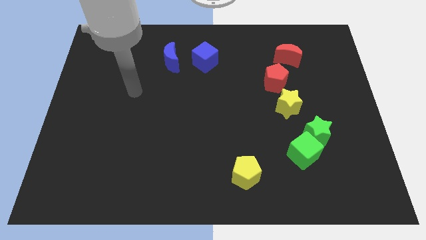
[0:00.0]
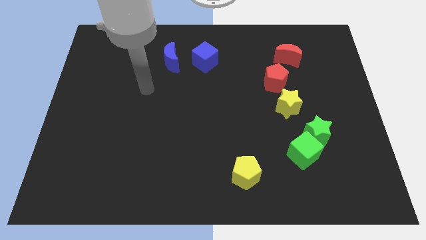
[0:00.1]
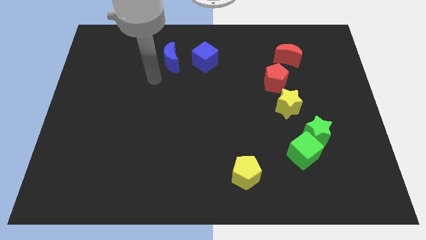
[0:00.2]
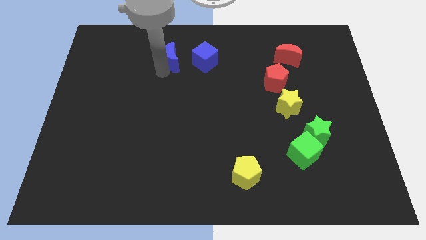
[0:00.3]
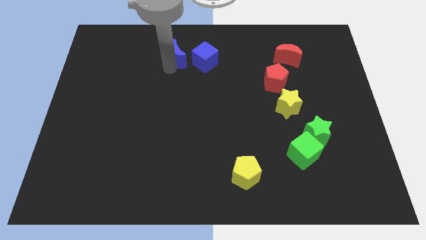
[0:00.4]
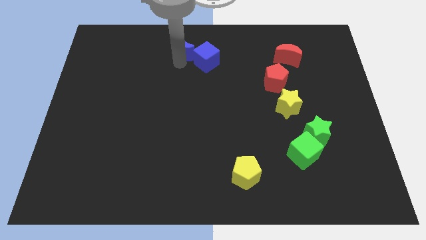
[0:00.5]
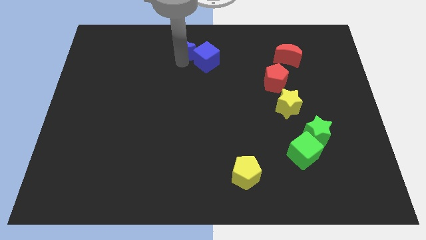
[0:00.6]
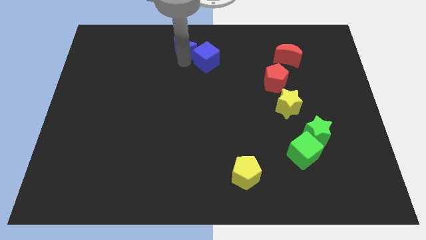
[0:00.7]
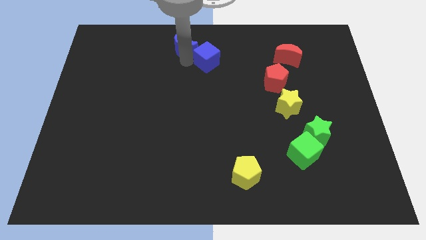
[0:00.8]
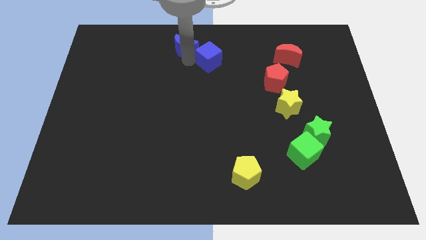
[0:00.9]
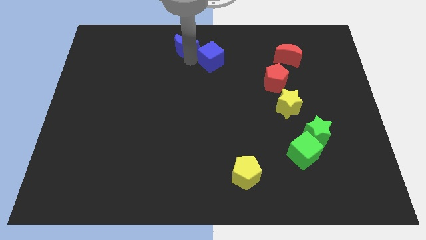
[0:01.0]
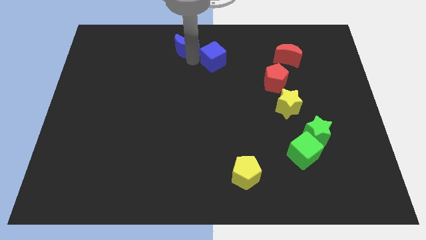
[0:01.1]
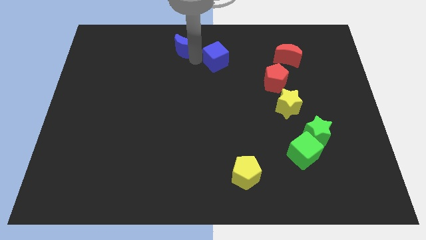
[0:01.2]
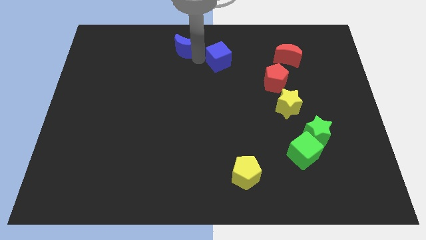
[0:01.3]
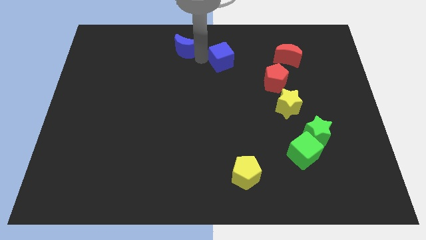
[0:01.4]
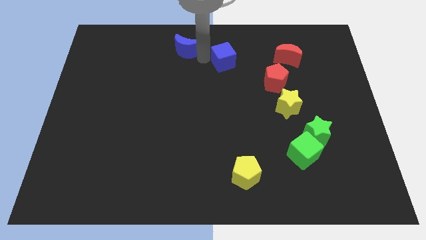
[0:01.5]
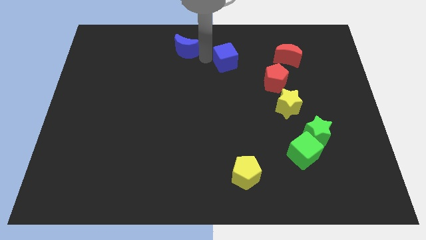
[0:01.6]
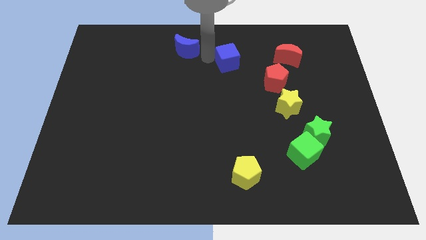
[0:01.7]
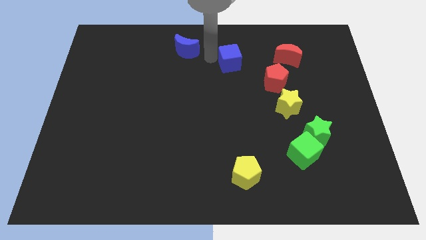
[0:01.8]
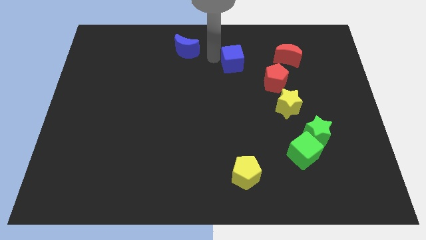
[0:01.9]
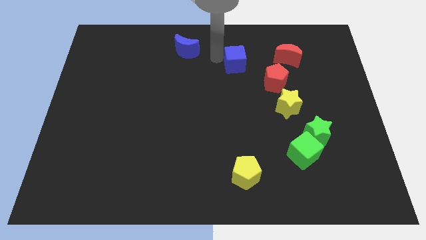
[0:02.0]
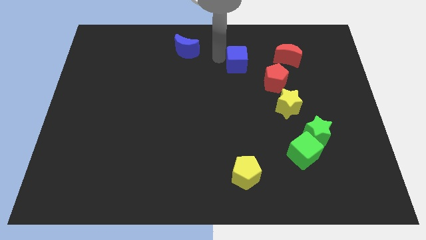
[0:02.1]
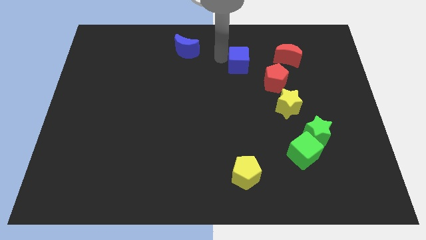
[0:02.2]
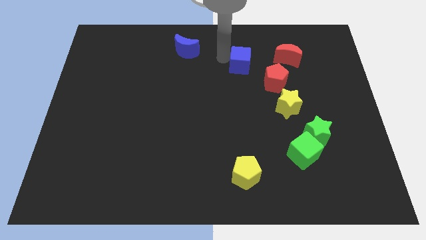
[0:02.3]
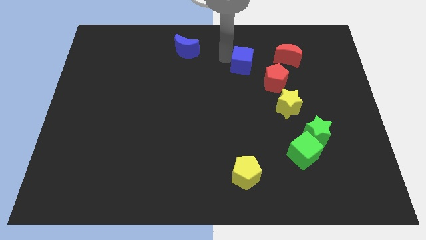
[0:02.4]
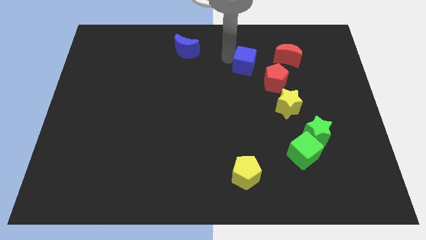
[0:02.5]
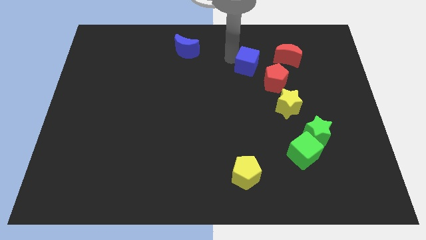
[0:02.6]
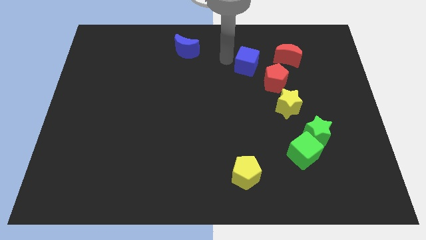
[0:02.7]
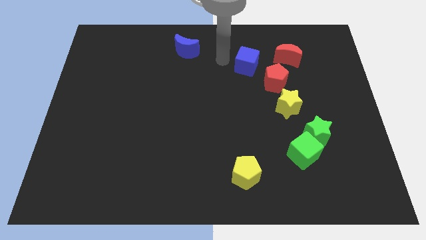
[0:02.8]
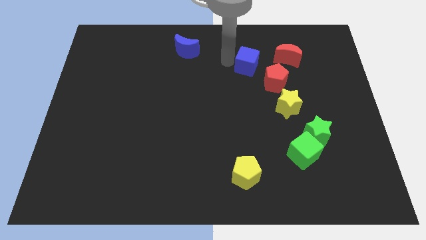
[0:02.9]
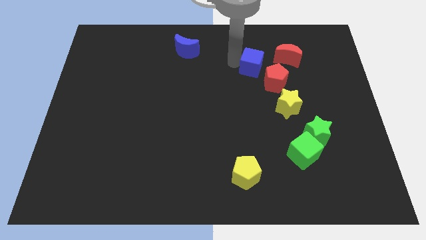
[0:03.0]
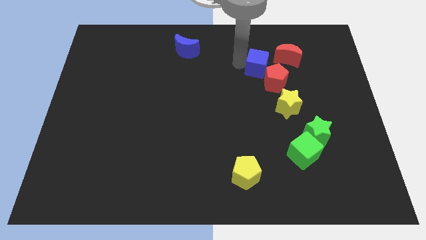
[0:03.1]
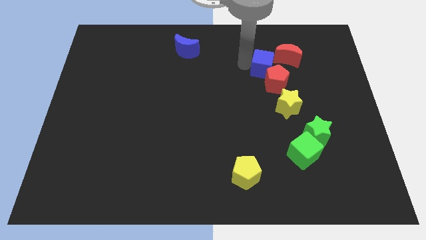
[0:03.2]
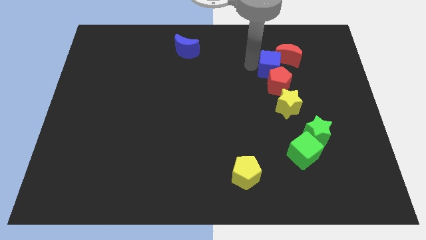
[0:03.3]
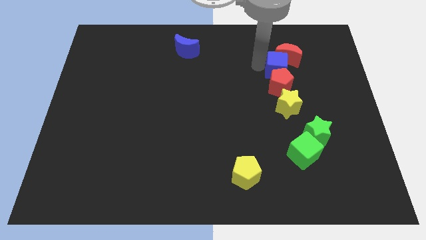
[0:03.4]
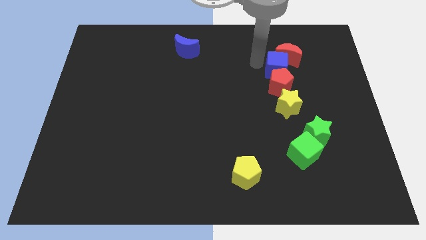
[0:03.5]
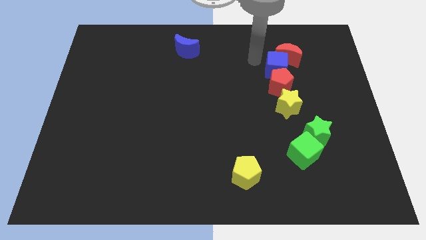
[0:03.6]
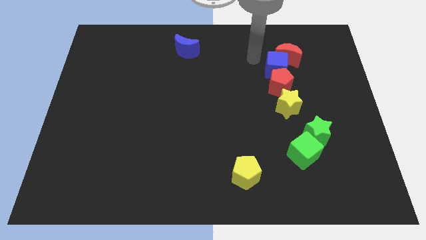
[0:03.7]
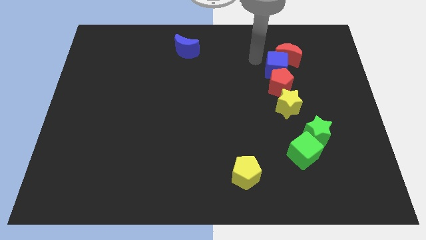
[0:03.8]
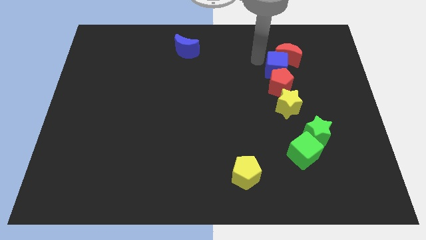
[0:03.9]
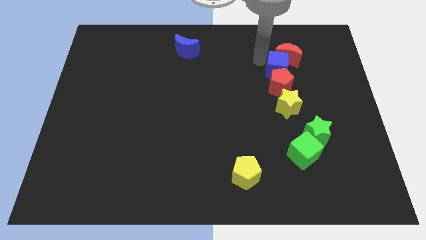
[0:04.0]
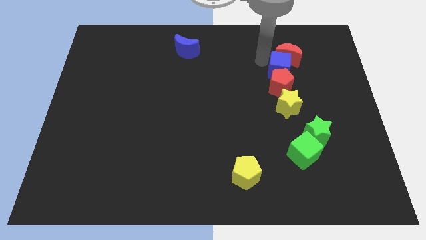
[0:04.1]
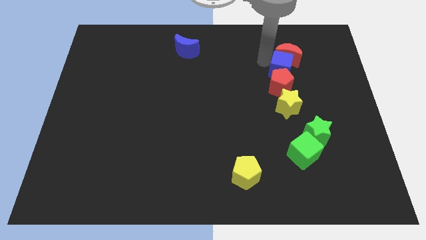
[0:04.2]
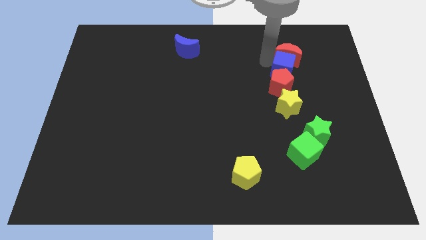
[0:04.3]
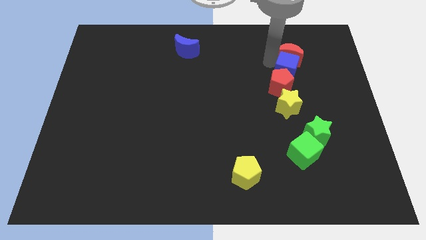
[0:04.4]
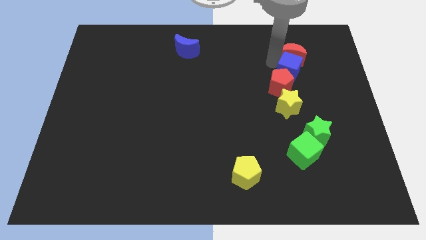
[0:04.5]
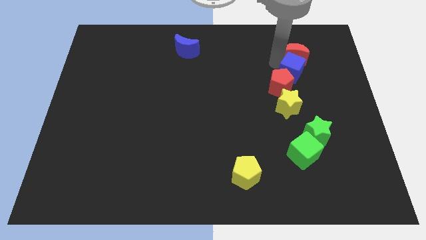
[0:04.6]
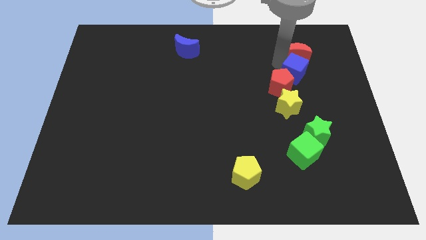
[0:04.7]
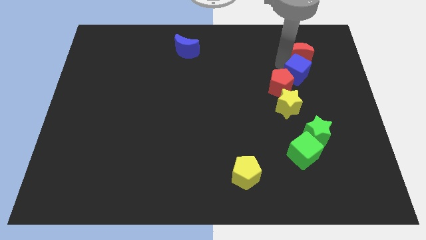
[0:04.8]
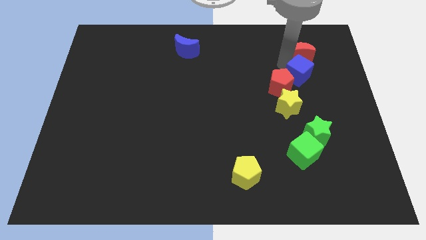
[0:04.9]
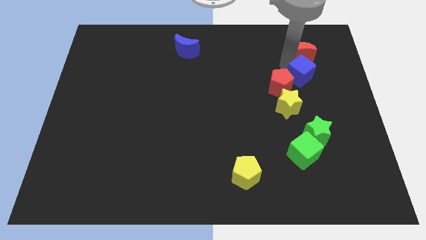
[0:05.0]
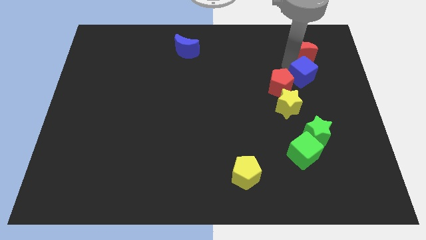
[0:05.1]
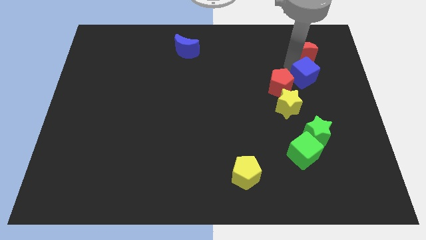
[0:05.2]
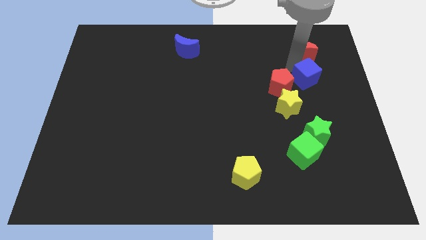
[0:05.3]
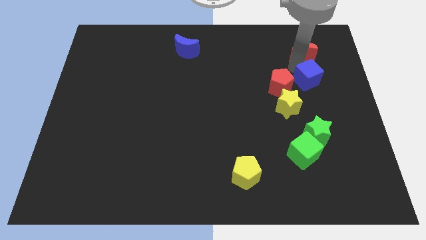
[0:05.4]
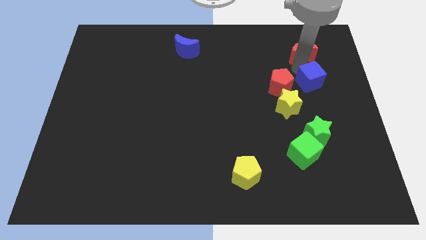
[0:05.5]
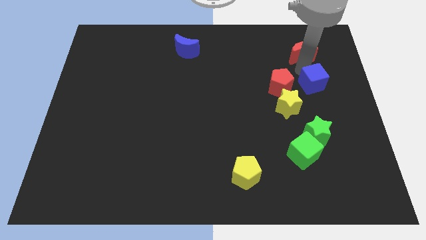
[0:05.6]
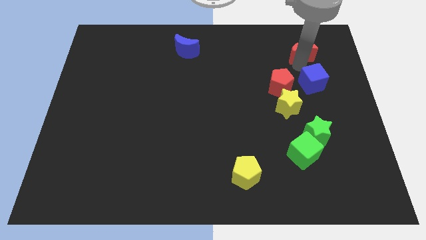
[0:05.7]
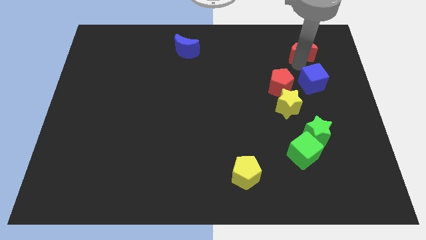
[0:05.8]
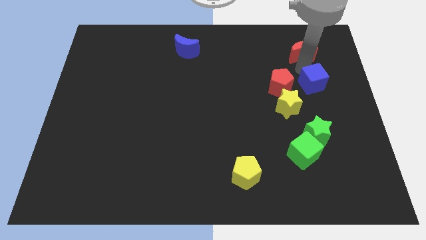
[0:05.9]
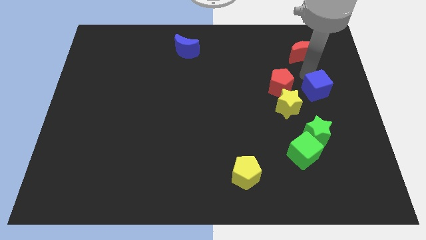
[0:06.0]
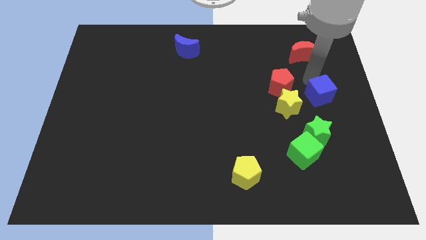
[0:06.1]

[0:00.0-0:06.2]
put the blue cube to the right side of the yellow star

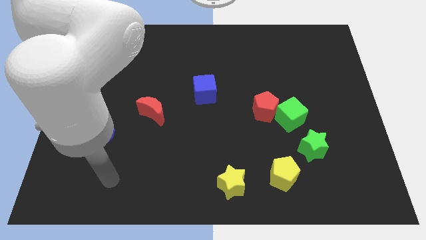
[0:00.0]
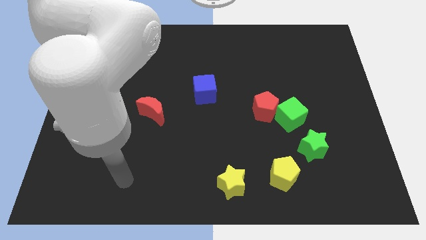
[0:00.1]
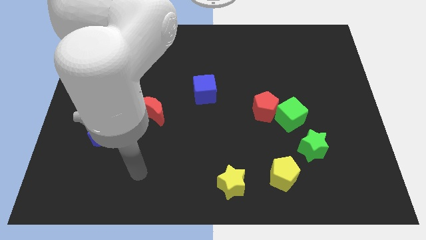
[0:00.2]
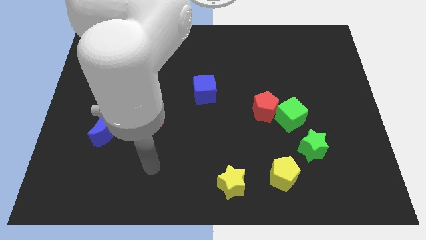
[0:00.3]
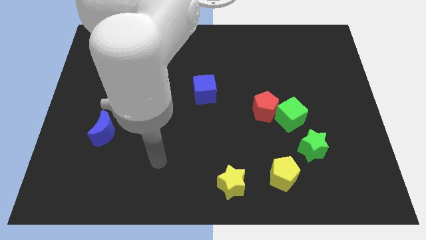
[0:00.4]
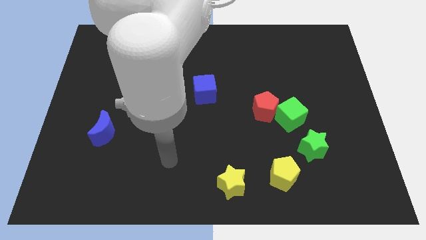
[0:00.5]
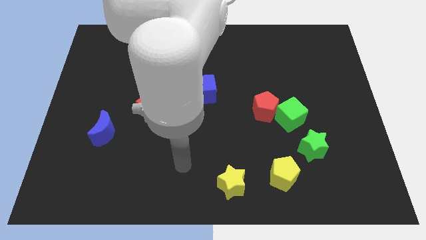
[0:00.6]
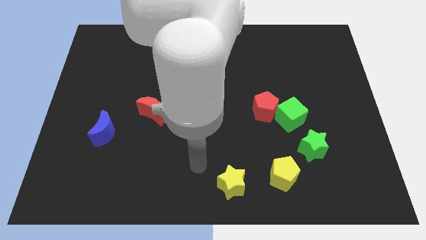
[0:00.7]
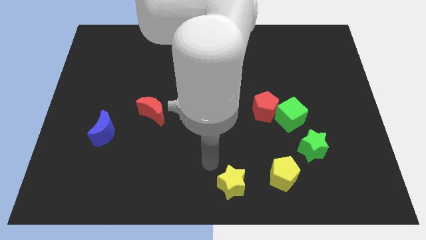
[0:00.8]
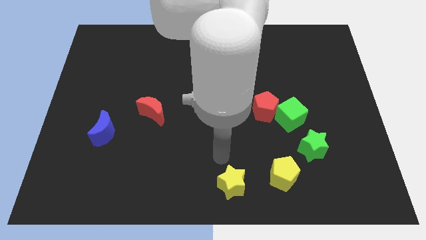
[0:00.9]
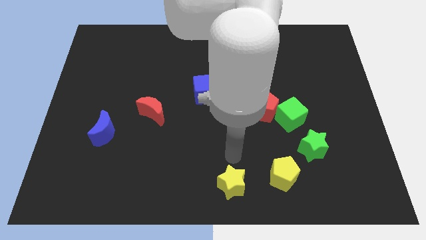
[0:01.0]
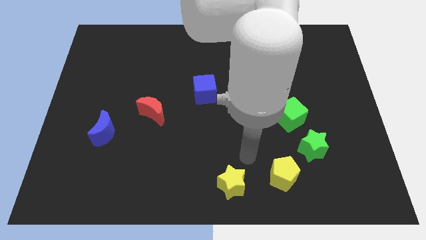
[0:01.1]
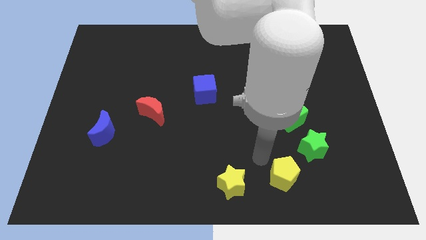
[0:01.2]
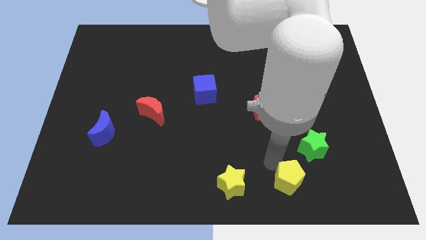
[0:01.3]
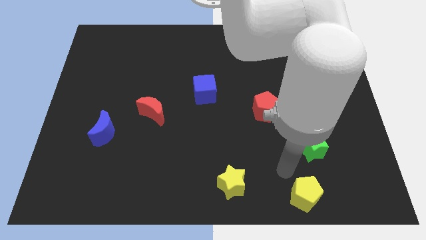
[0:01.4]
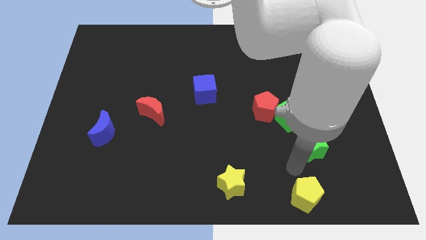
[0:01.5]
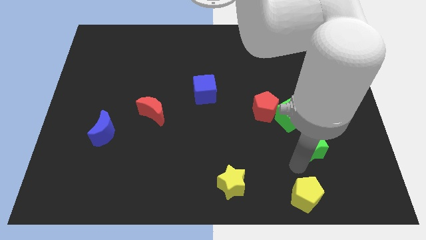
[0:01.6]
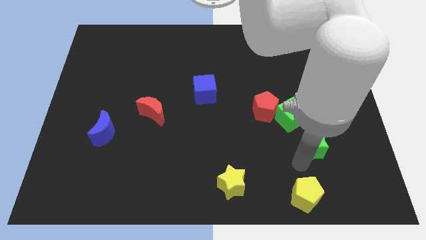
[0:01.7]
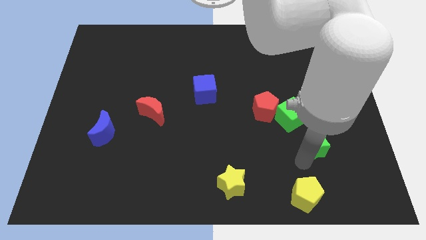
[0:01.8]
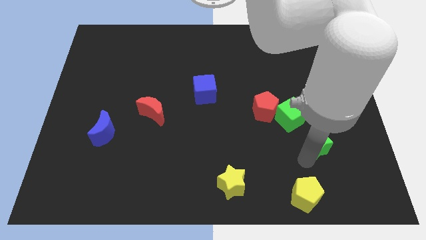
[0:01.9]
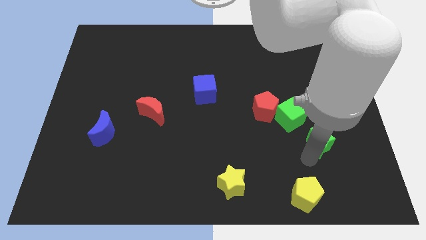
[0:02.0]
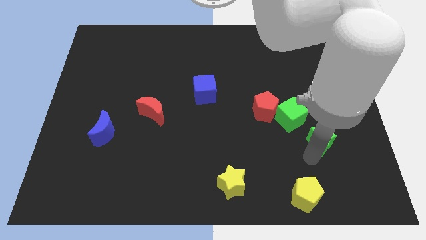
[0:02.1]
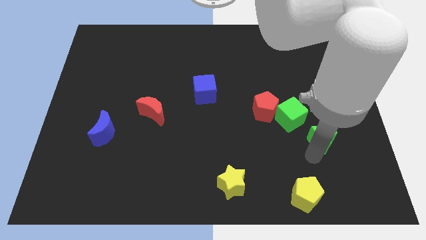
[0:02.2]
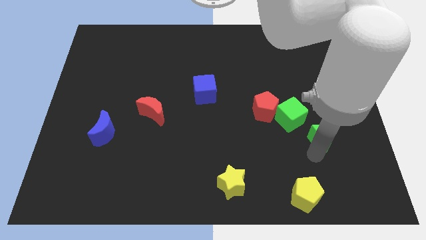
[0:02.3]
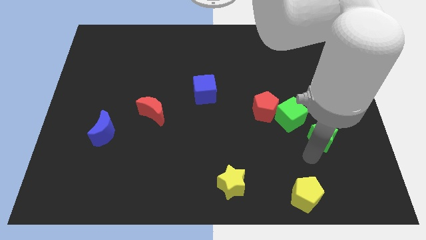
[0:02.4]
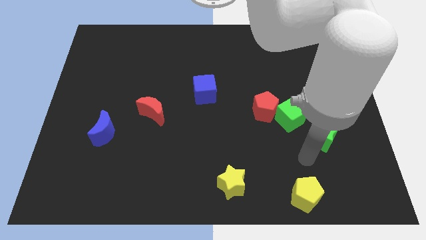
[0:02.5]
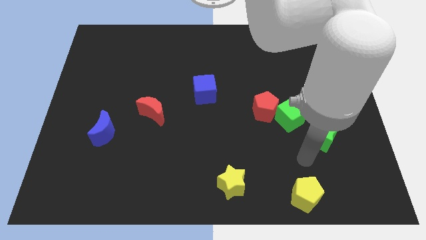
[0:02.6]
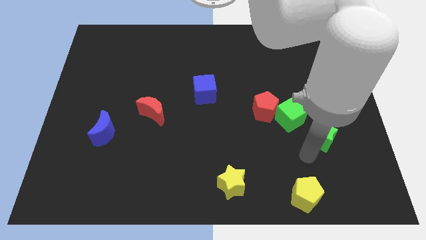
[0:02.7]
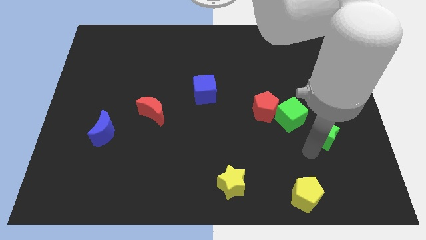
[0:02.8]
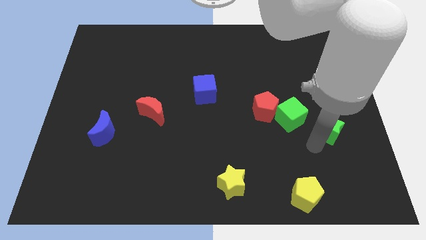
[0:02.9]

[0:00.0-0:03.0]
move the green star to the right side of the green cube
